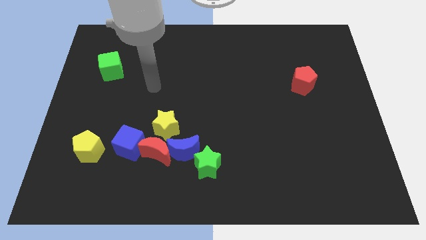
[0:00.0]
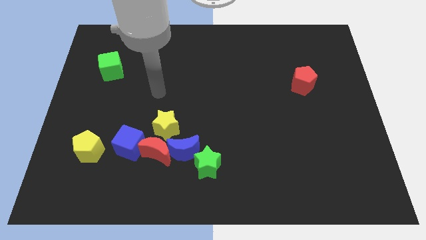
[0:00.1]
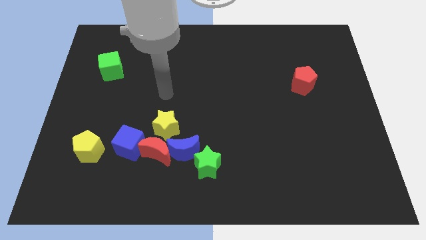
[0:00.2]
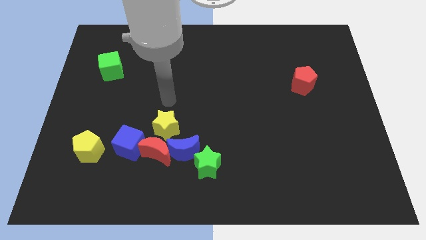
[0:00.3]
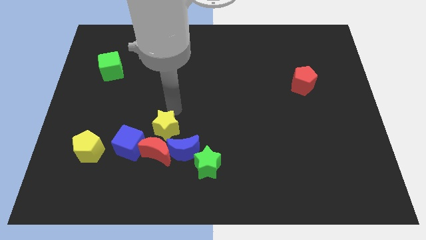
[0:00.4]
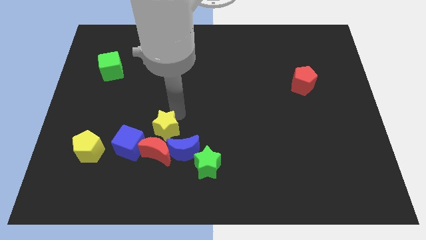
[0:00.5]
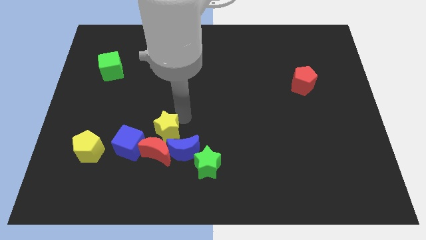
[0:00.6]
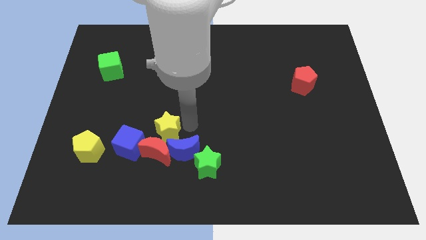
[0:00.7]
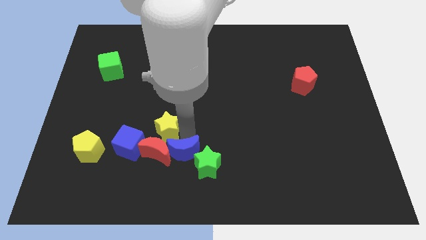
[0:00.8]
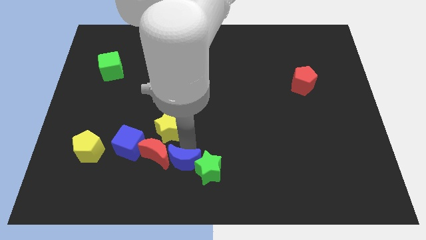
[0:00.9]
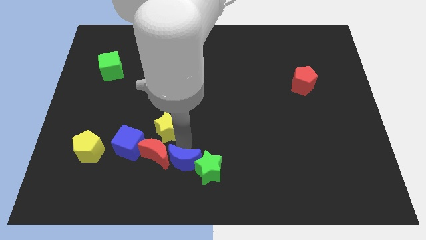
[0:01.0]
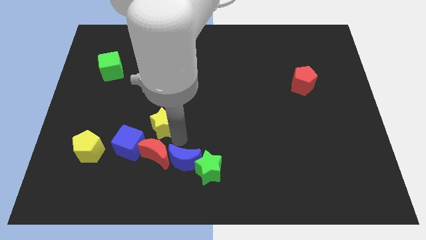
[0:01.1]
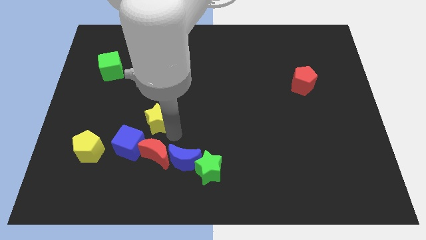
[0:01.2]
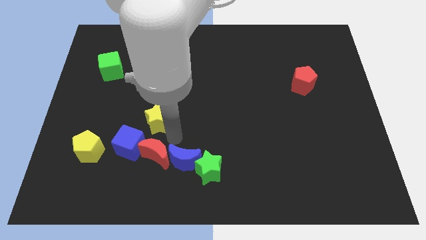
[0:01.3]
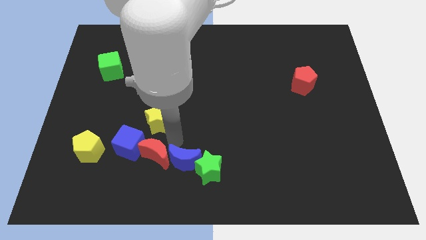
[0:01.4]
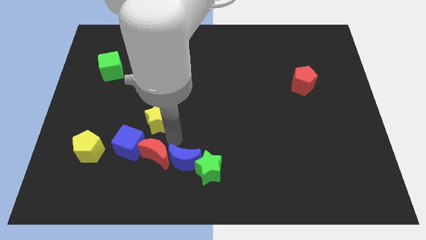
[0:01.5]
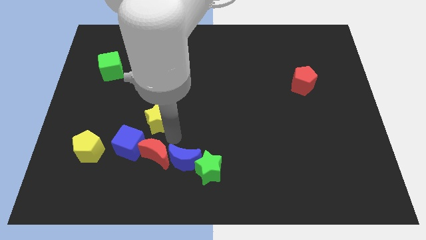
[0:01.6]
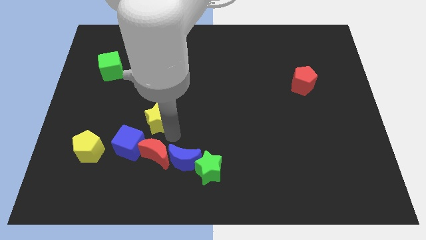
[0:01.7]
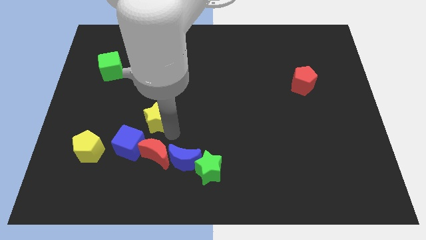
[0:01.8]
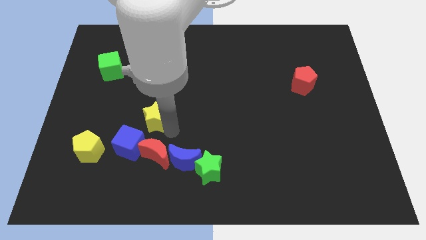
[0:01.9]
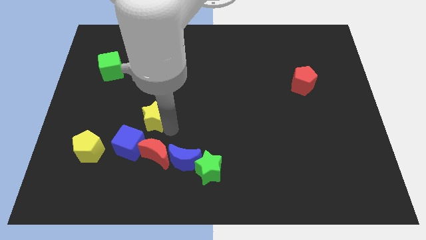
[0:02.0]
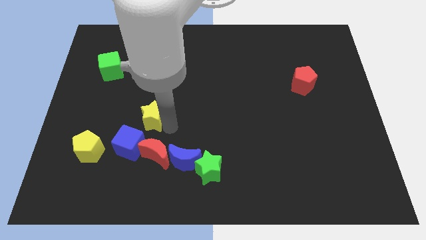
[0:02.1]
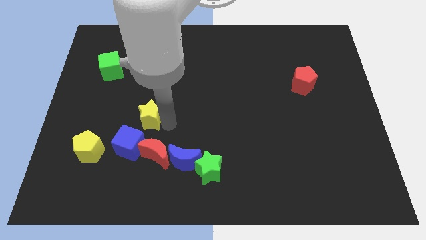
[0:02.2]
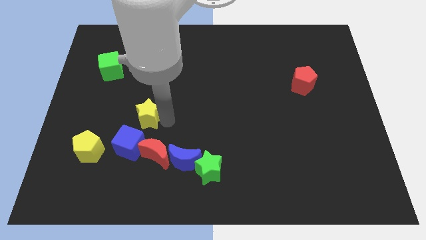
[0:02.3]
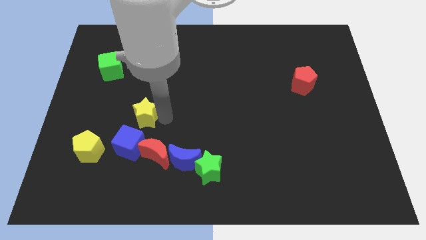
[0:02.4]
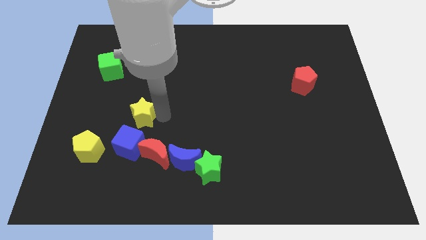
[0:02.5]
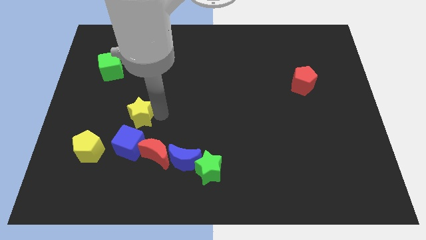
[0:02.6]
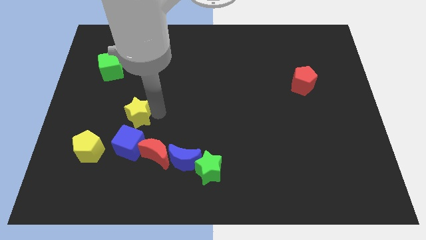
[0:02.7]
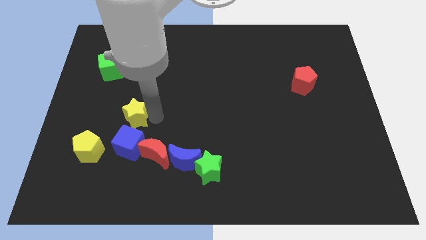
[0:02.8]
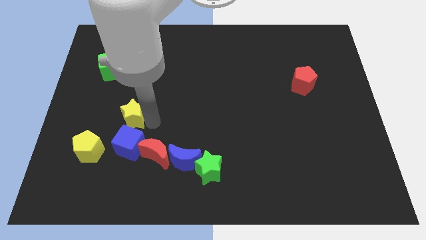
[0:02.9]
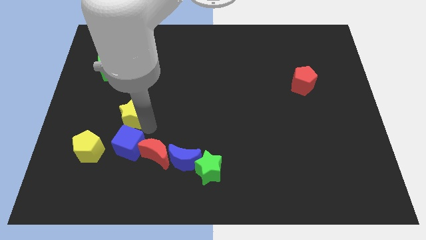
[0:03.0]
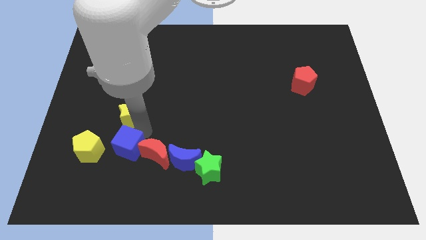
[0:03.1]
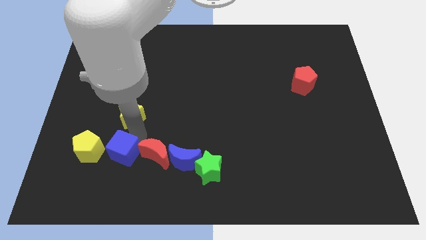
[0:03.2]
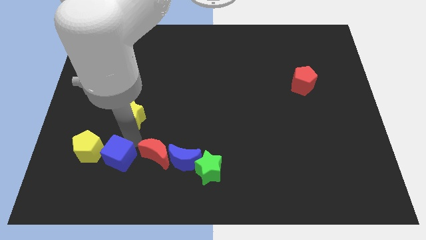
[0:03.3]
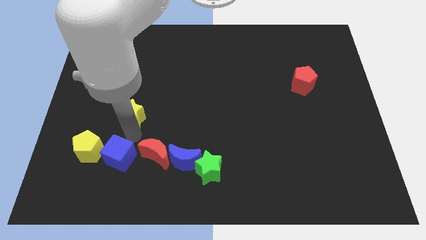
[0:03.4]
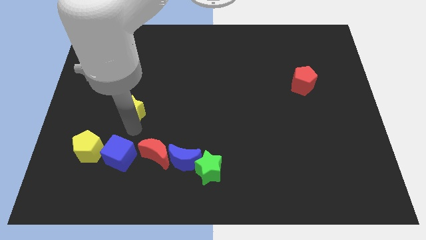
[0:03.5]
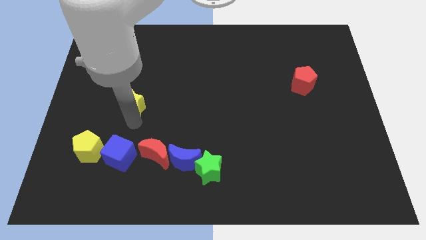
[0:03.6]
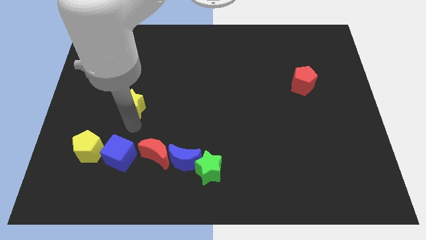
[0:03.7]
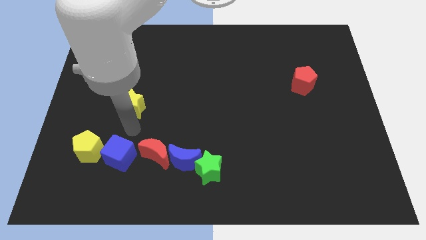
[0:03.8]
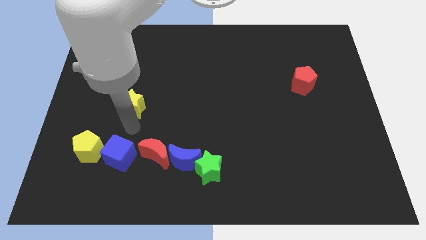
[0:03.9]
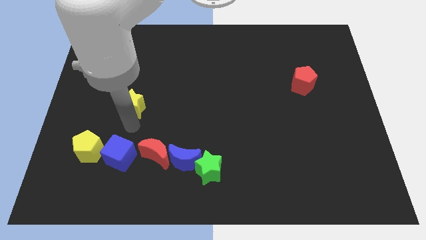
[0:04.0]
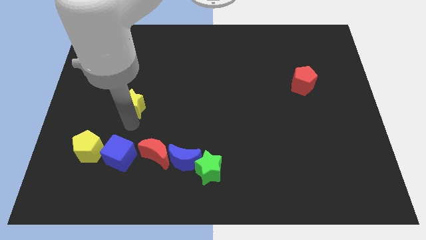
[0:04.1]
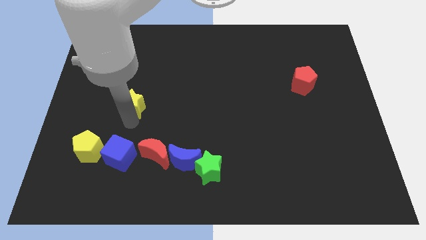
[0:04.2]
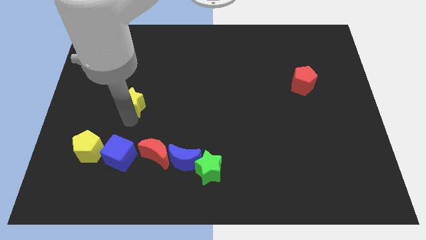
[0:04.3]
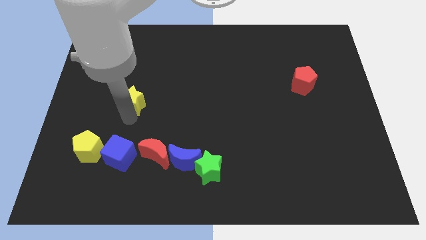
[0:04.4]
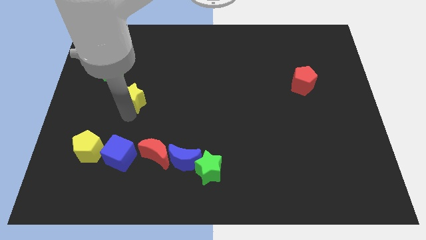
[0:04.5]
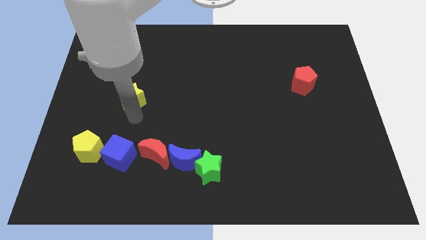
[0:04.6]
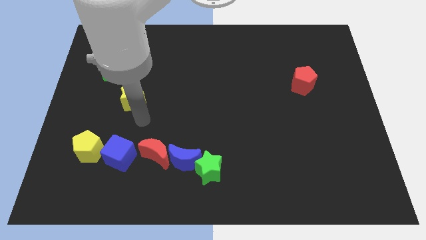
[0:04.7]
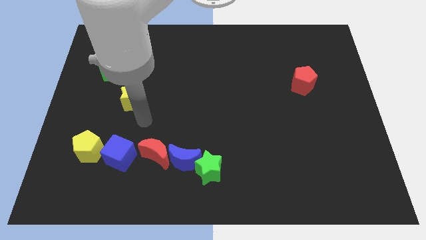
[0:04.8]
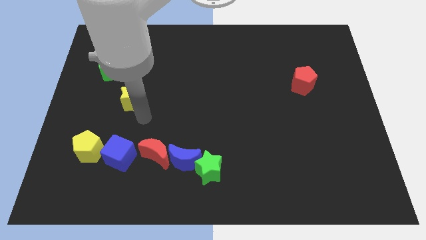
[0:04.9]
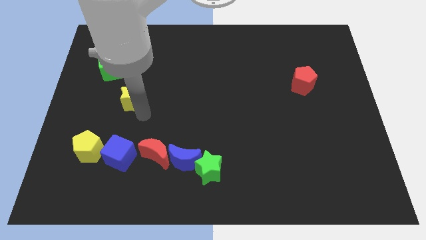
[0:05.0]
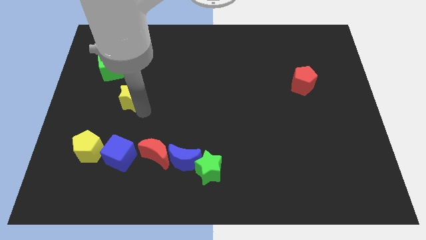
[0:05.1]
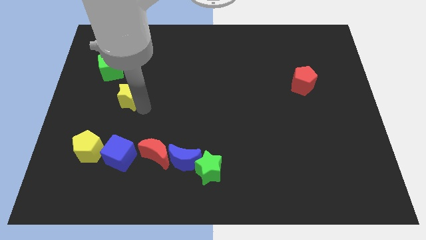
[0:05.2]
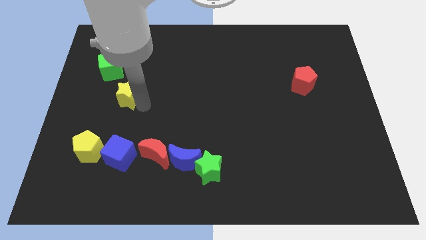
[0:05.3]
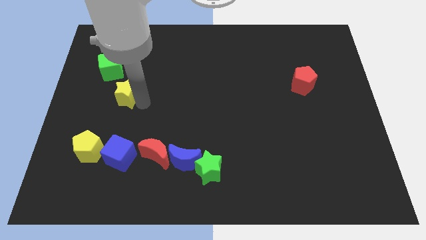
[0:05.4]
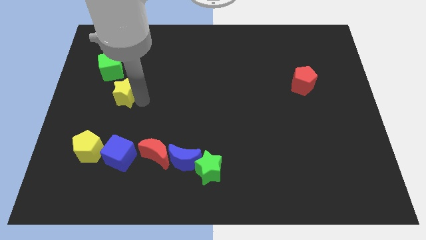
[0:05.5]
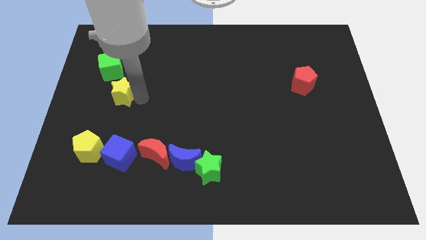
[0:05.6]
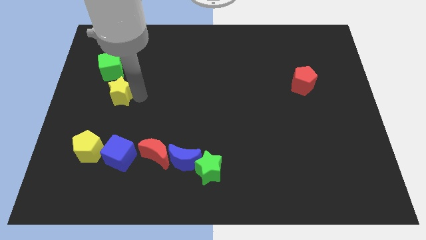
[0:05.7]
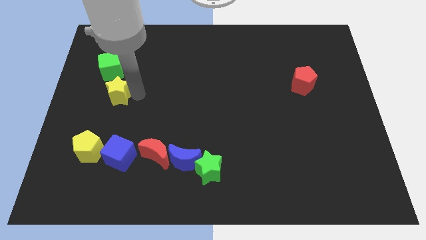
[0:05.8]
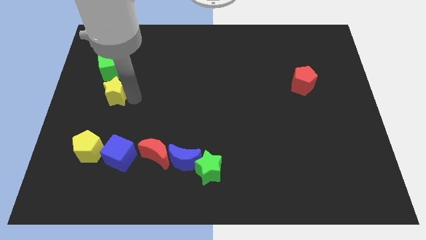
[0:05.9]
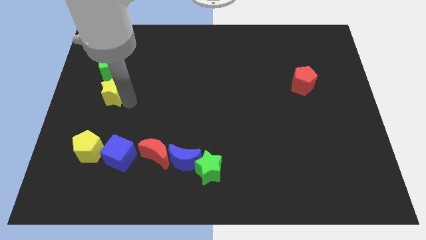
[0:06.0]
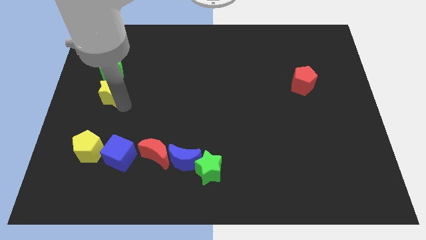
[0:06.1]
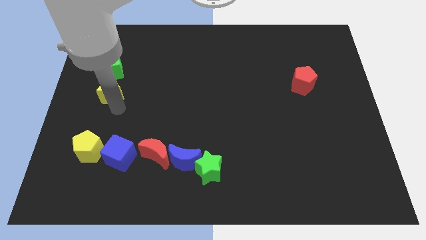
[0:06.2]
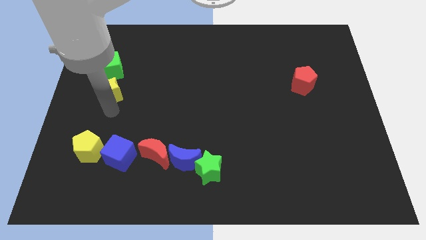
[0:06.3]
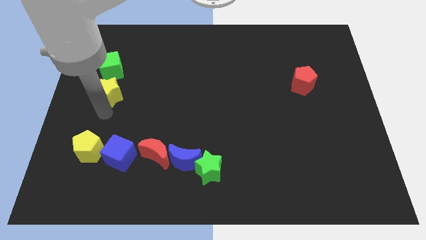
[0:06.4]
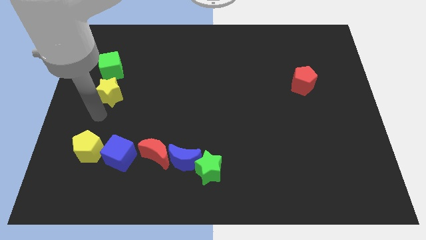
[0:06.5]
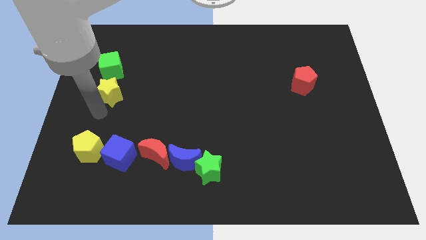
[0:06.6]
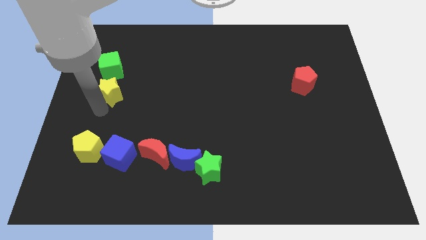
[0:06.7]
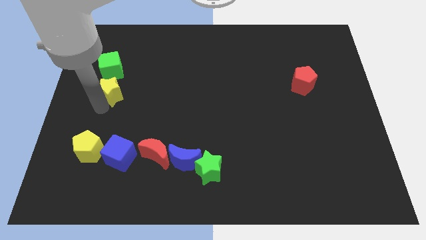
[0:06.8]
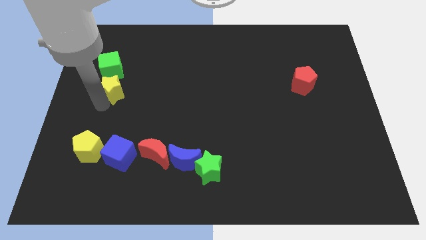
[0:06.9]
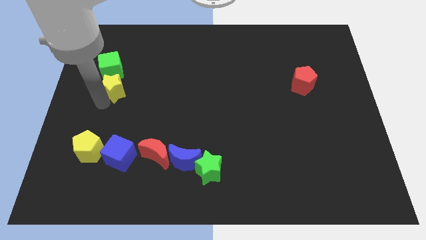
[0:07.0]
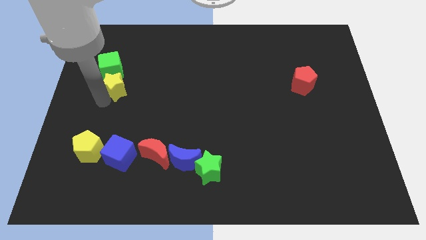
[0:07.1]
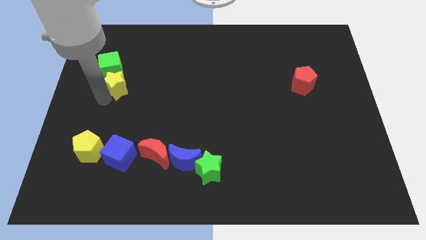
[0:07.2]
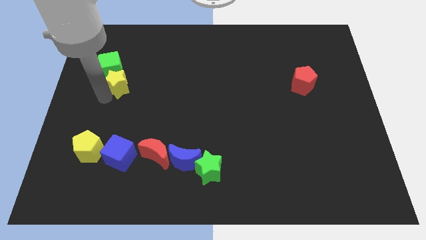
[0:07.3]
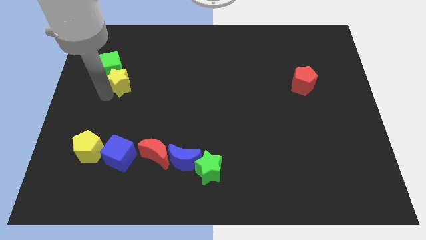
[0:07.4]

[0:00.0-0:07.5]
put the yellow star close to the green cube
